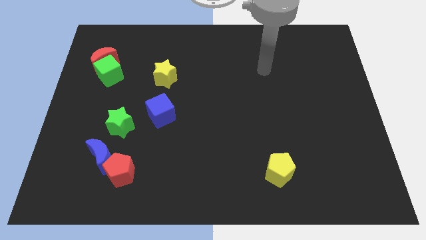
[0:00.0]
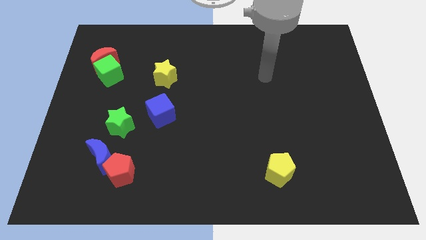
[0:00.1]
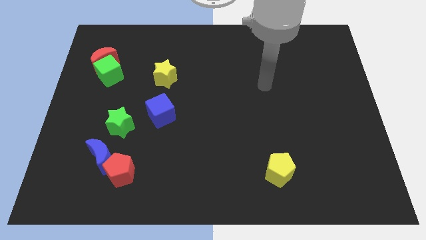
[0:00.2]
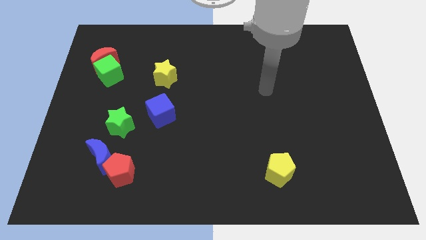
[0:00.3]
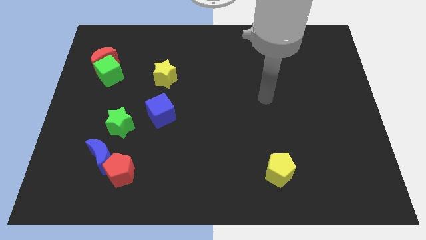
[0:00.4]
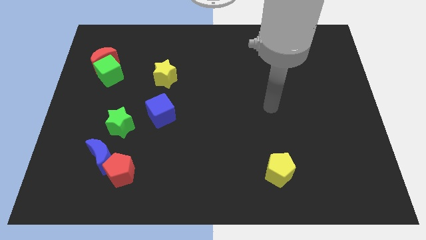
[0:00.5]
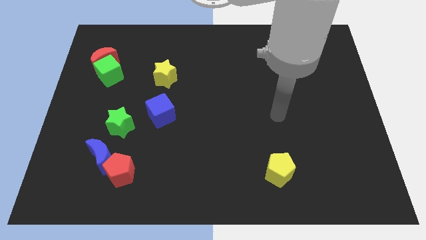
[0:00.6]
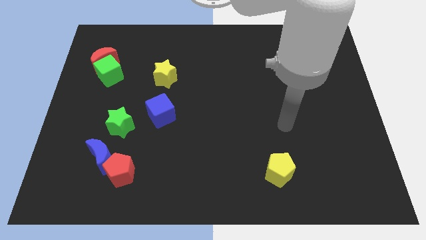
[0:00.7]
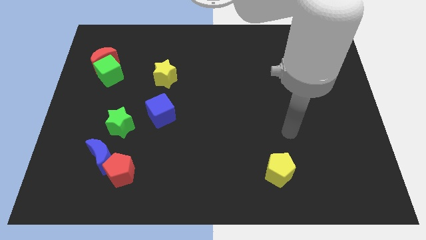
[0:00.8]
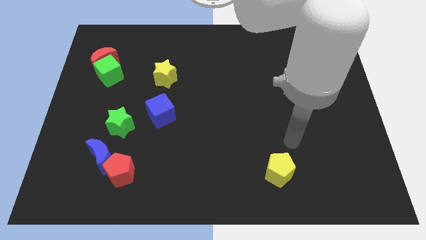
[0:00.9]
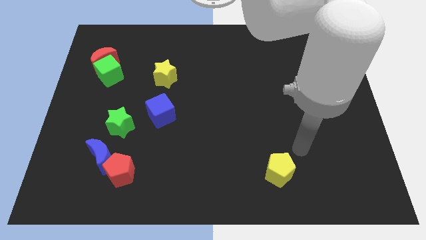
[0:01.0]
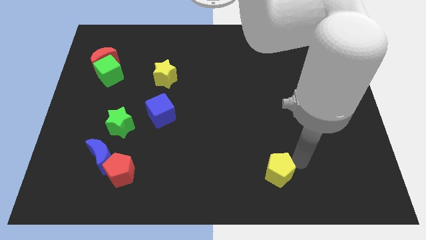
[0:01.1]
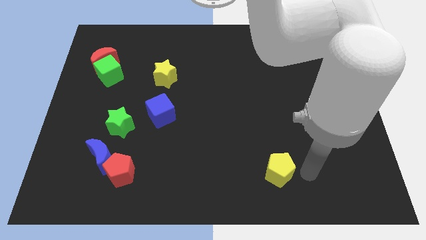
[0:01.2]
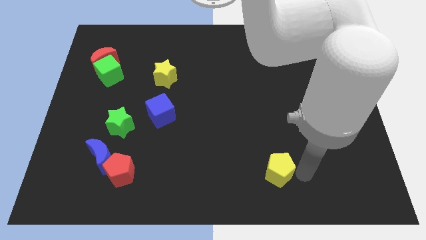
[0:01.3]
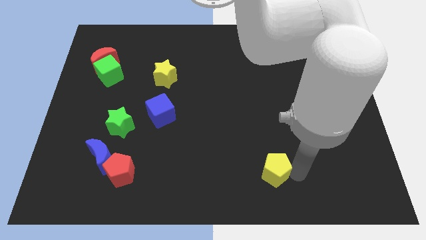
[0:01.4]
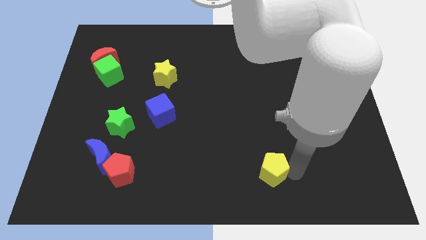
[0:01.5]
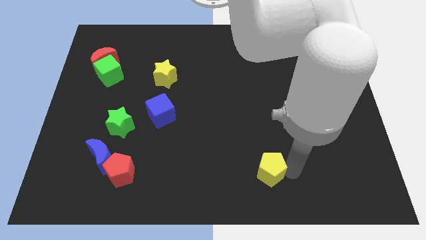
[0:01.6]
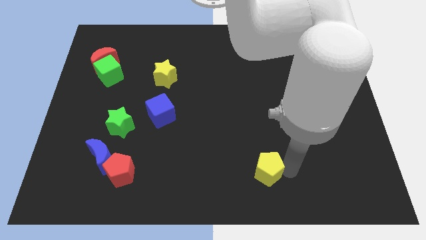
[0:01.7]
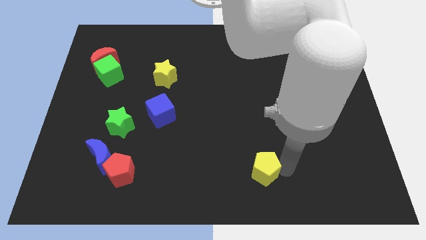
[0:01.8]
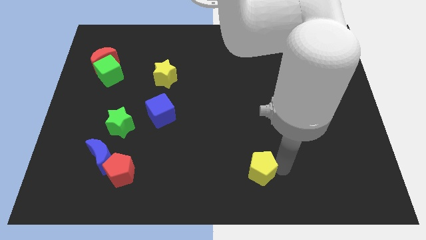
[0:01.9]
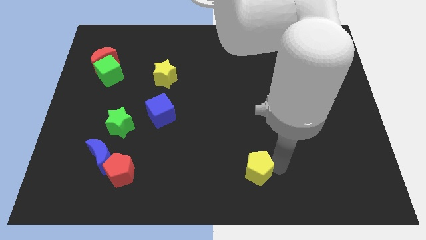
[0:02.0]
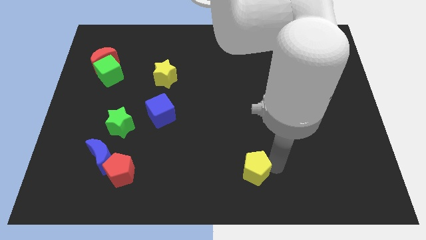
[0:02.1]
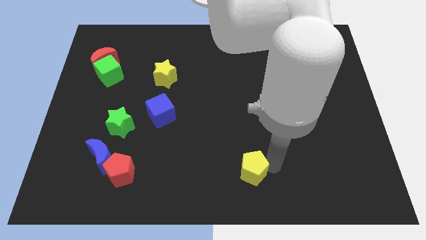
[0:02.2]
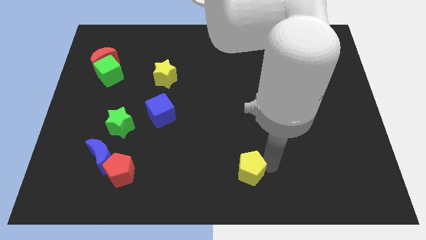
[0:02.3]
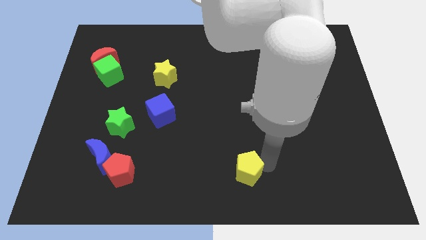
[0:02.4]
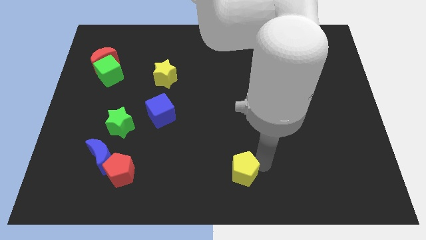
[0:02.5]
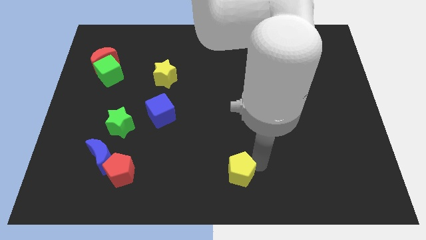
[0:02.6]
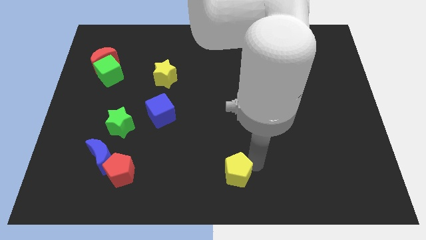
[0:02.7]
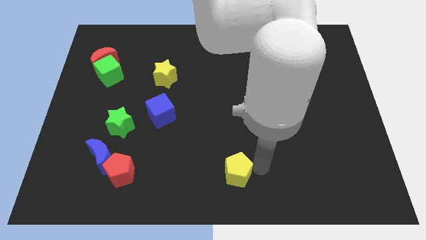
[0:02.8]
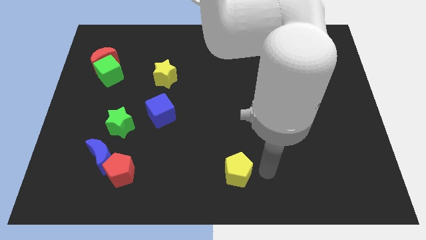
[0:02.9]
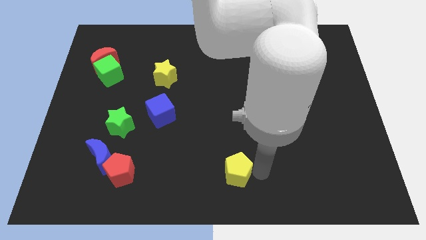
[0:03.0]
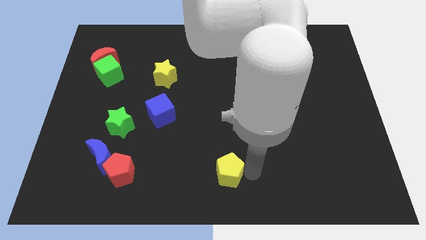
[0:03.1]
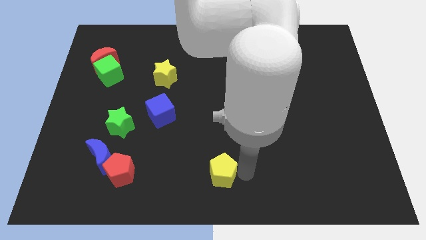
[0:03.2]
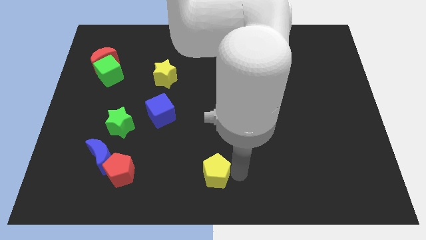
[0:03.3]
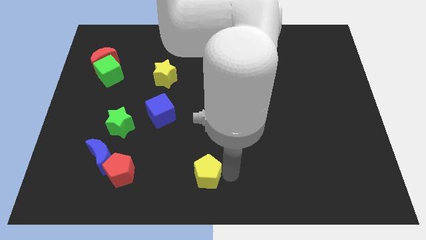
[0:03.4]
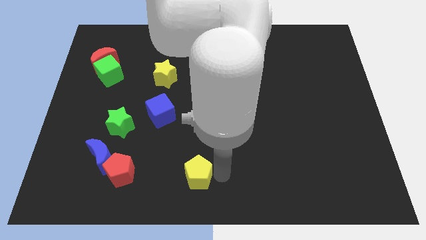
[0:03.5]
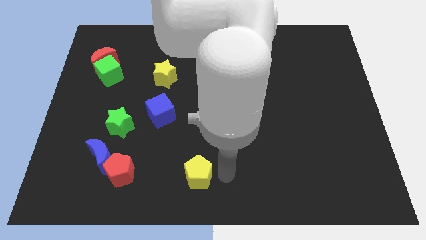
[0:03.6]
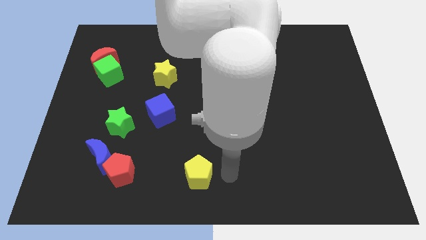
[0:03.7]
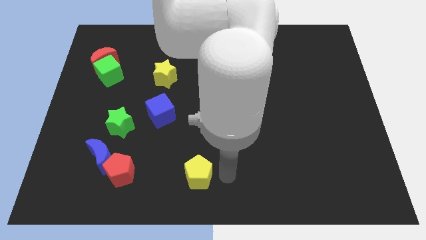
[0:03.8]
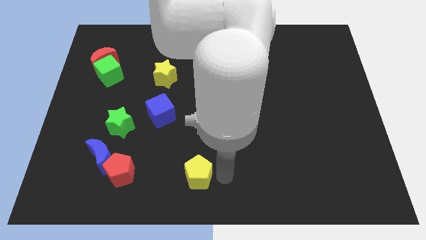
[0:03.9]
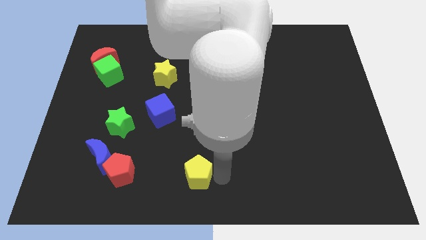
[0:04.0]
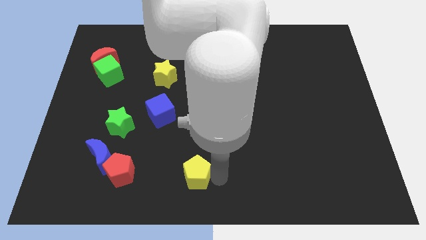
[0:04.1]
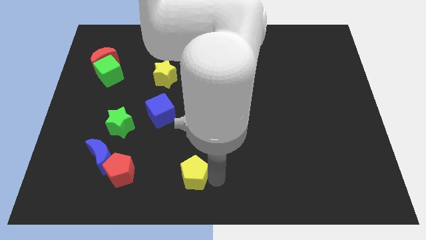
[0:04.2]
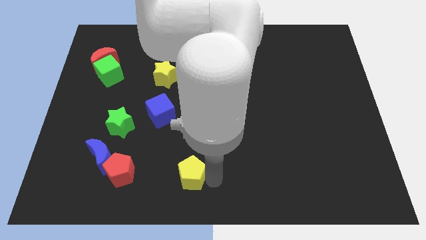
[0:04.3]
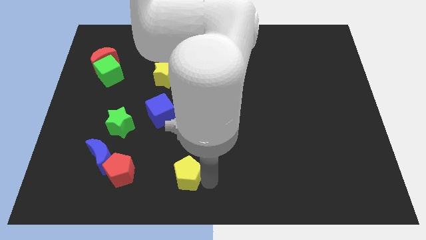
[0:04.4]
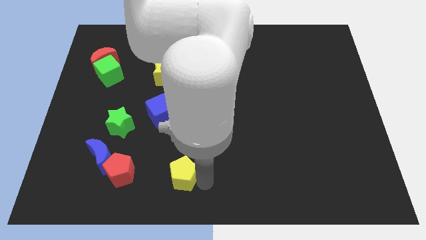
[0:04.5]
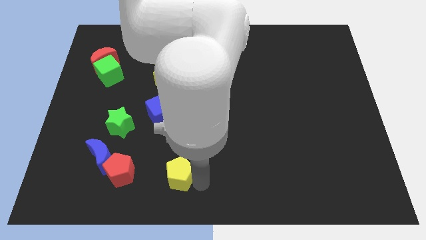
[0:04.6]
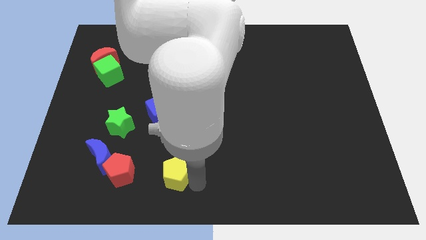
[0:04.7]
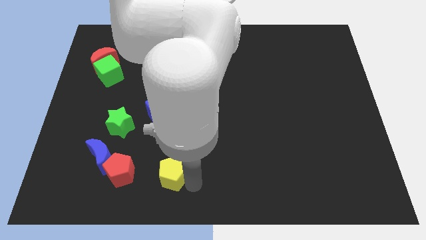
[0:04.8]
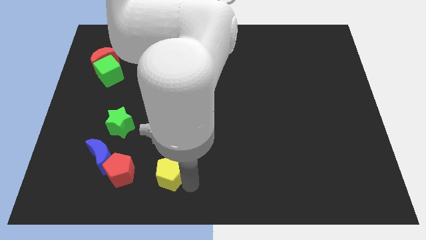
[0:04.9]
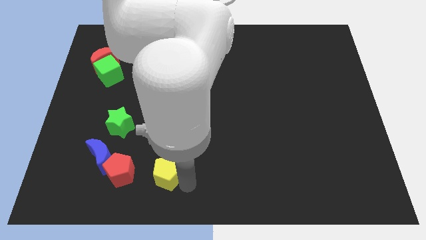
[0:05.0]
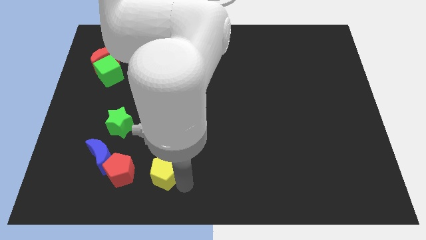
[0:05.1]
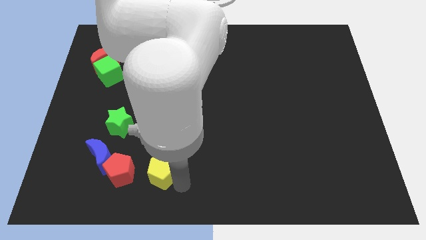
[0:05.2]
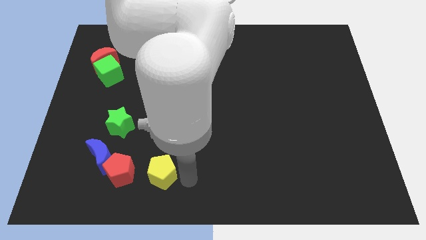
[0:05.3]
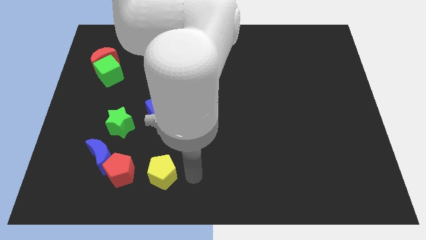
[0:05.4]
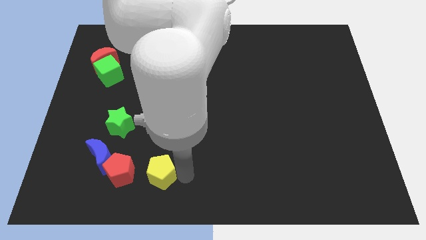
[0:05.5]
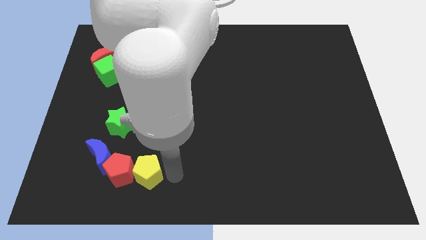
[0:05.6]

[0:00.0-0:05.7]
put the yellow pentagon towards the red pentagon

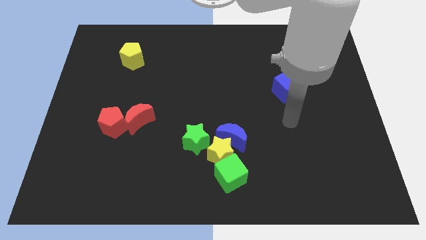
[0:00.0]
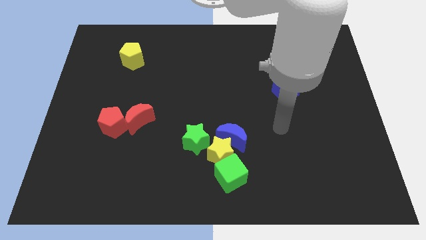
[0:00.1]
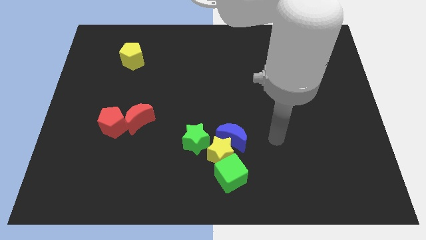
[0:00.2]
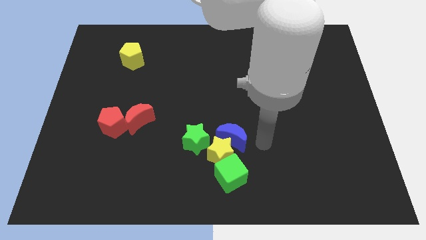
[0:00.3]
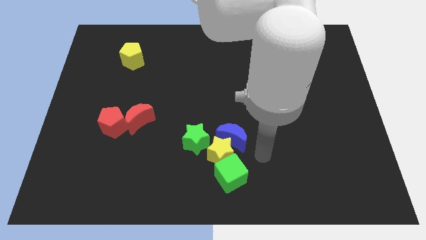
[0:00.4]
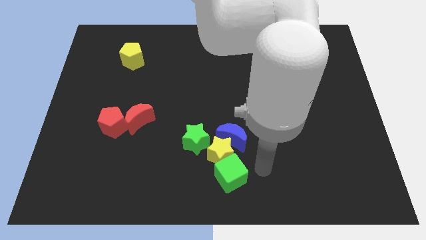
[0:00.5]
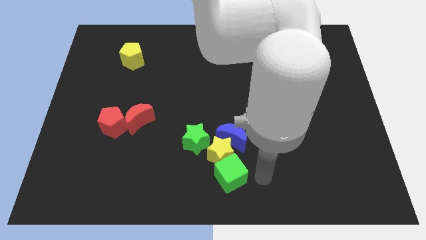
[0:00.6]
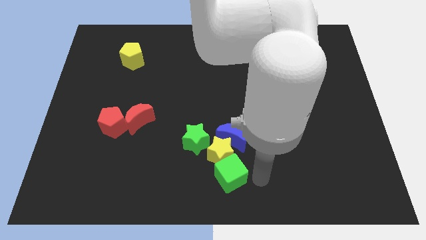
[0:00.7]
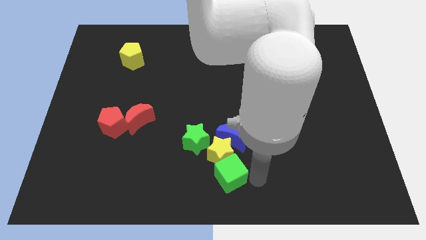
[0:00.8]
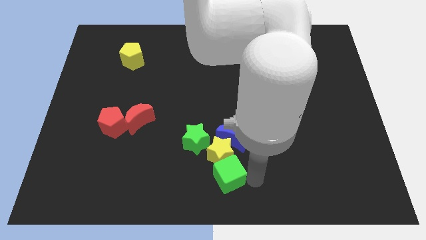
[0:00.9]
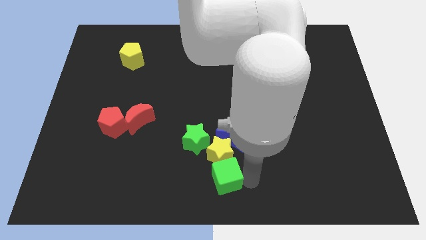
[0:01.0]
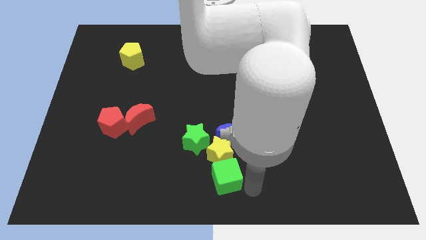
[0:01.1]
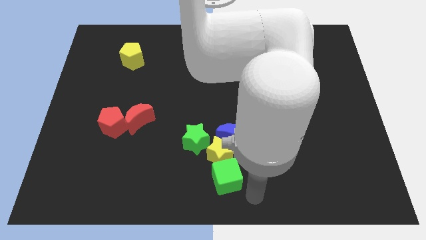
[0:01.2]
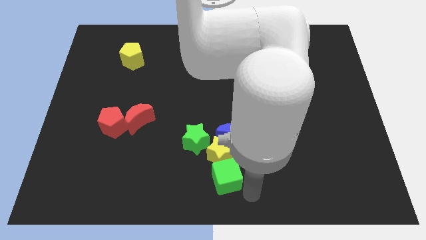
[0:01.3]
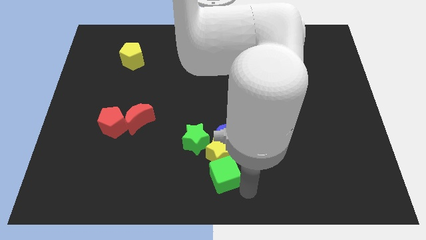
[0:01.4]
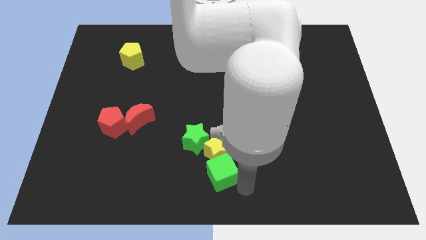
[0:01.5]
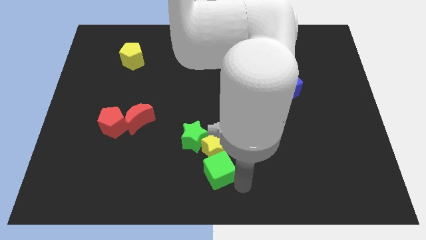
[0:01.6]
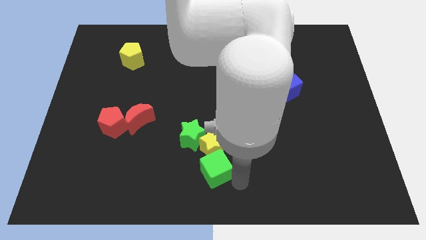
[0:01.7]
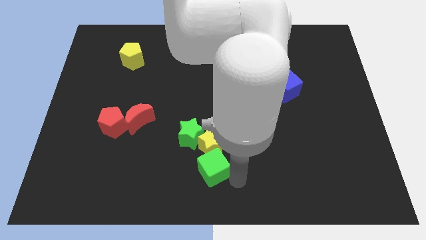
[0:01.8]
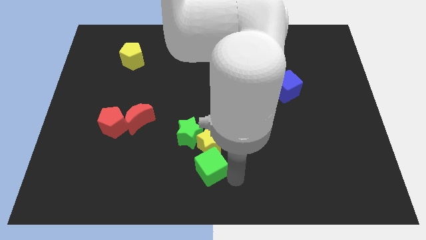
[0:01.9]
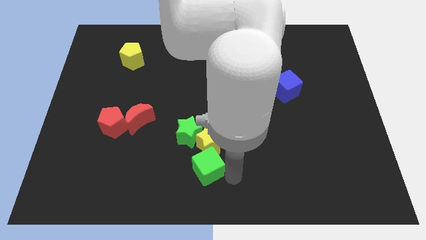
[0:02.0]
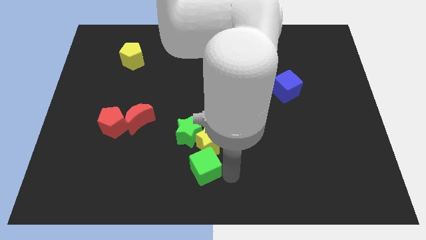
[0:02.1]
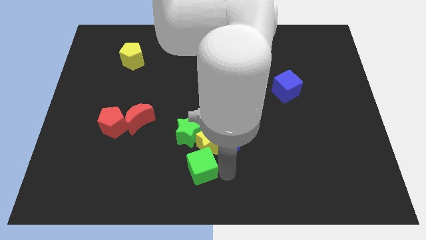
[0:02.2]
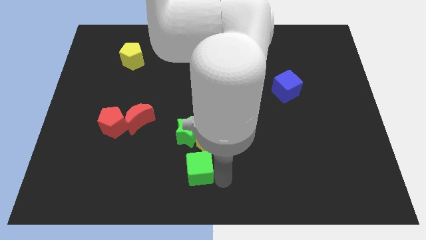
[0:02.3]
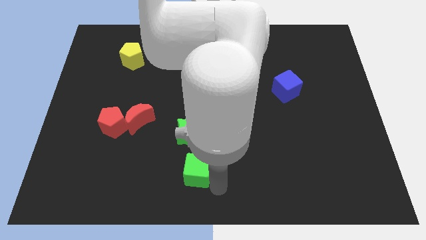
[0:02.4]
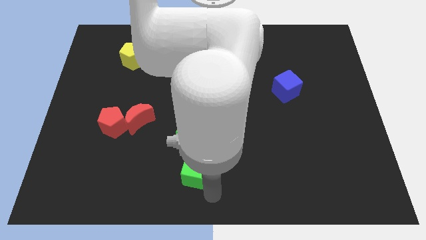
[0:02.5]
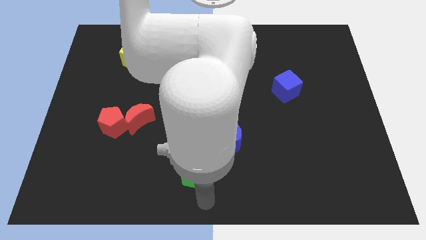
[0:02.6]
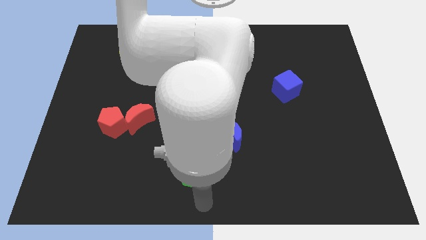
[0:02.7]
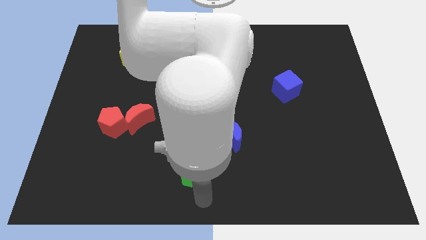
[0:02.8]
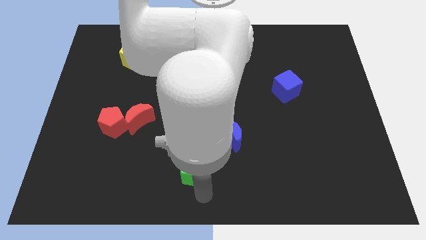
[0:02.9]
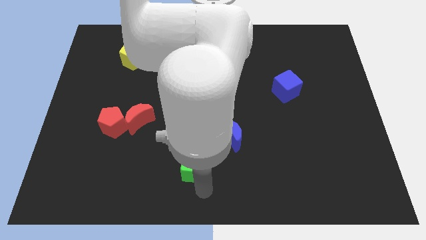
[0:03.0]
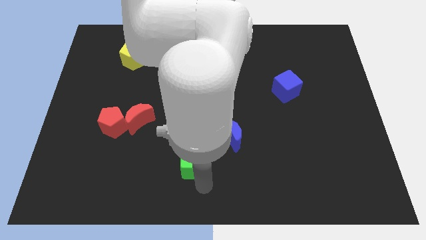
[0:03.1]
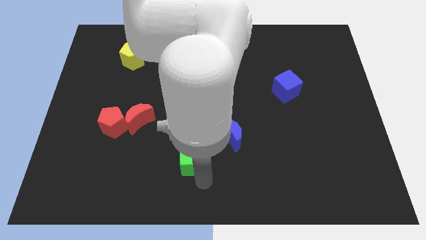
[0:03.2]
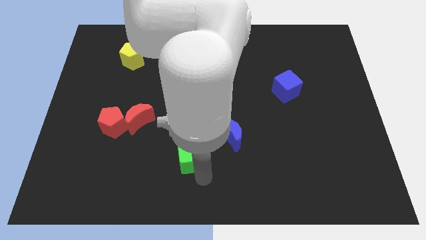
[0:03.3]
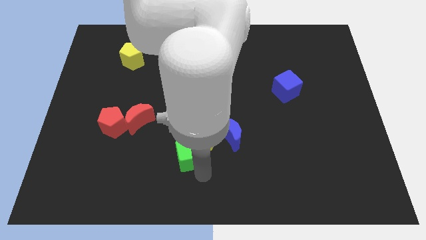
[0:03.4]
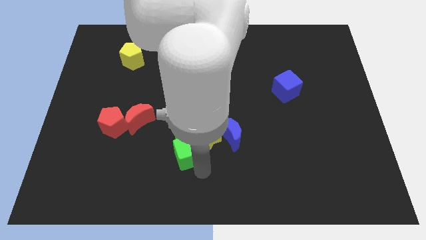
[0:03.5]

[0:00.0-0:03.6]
move the green cube to the green star
